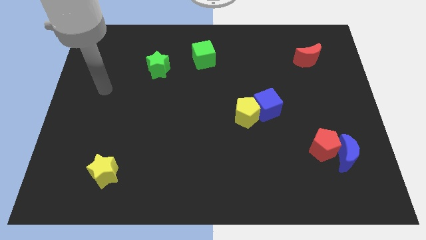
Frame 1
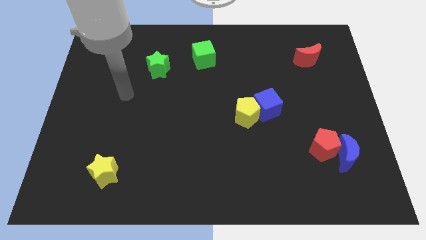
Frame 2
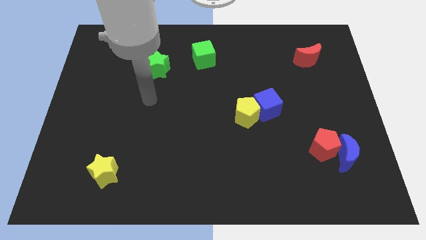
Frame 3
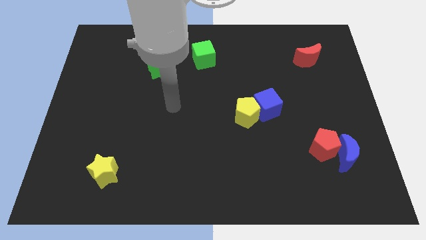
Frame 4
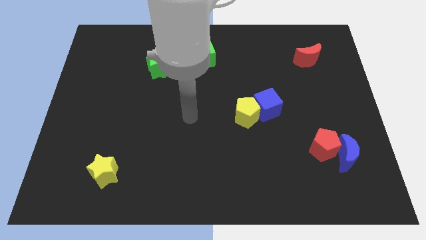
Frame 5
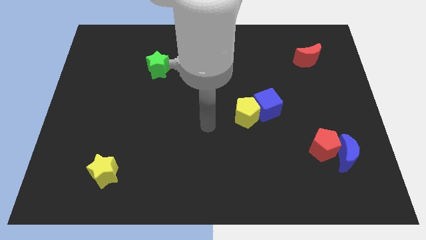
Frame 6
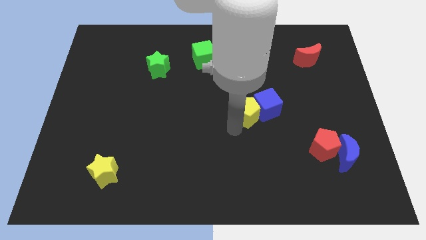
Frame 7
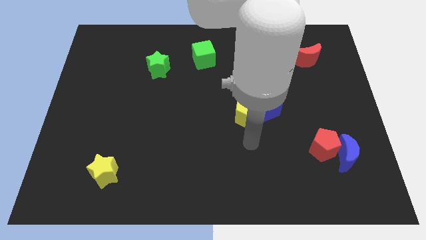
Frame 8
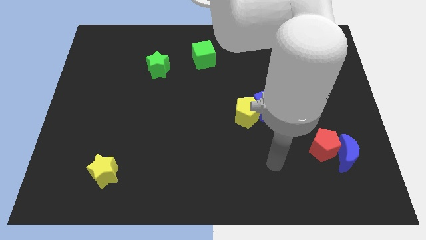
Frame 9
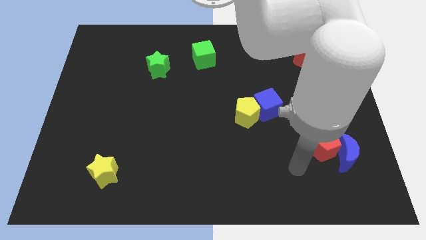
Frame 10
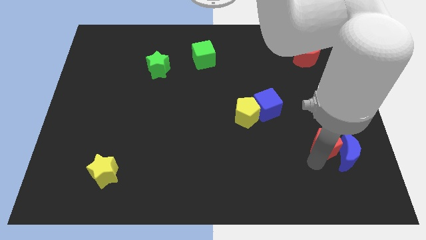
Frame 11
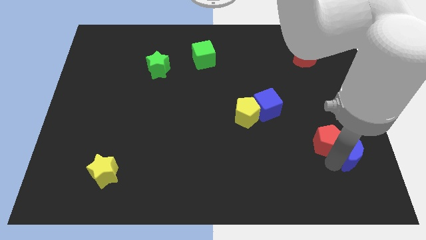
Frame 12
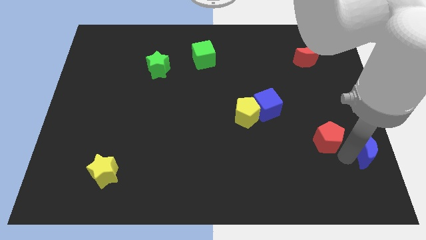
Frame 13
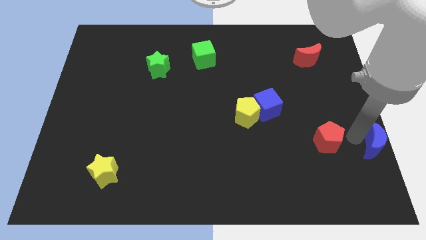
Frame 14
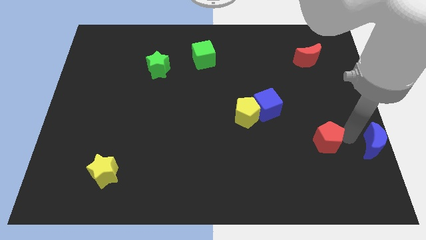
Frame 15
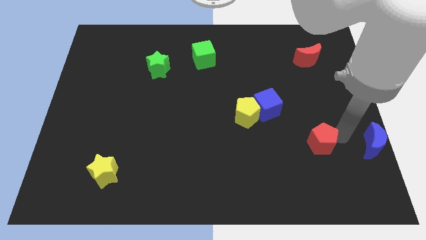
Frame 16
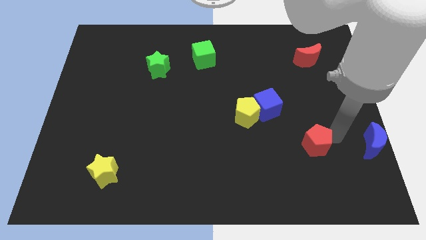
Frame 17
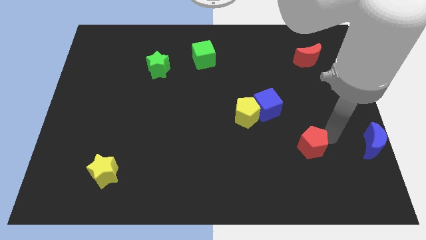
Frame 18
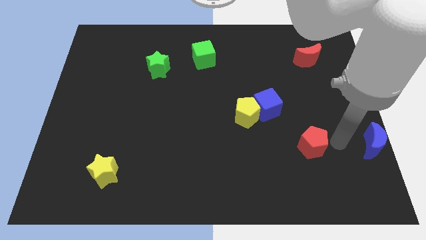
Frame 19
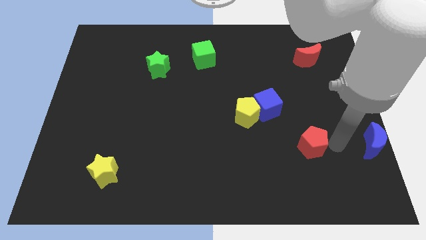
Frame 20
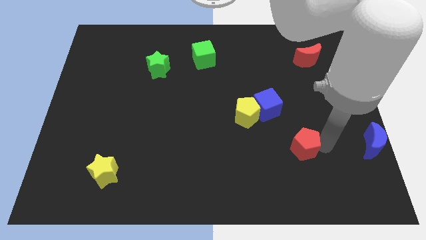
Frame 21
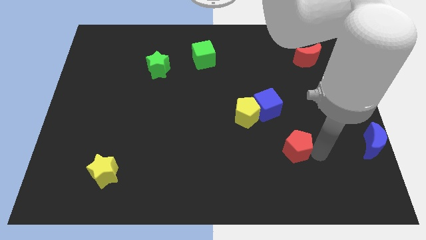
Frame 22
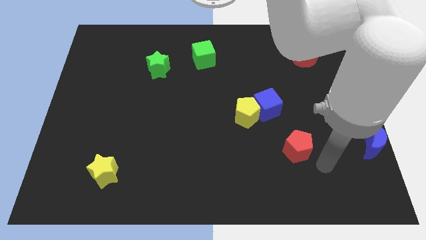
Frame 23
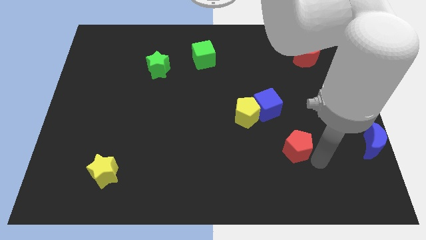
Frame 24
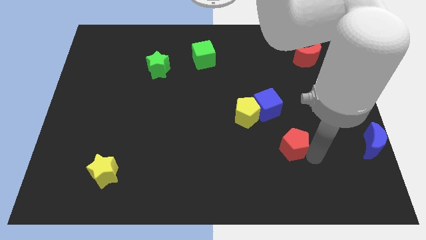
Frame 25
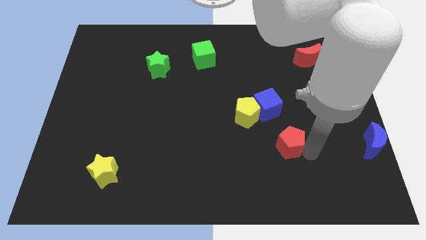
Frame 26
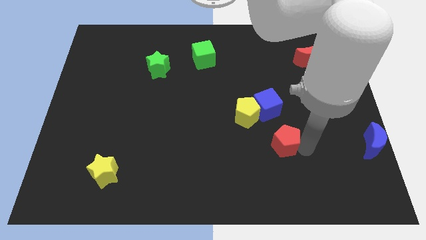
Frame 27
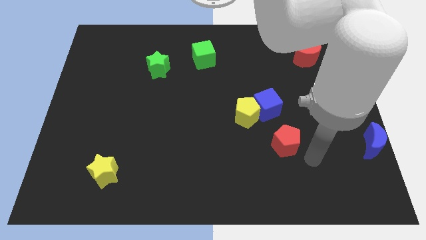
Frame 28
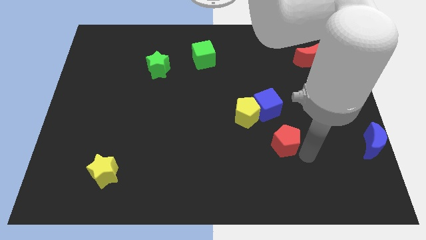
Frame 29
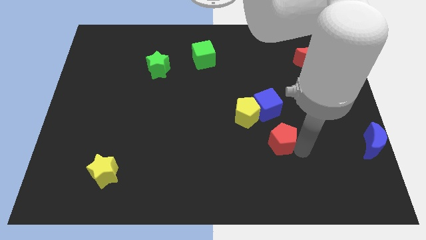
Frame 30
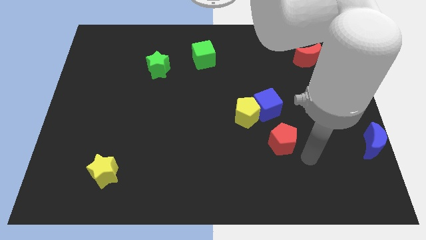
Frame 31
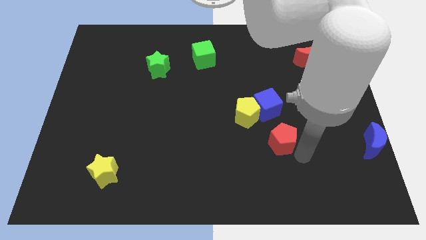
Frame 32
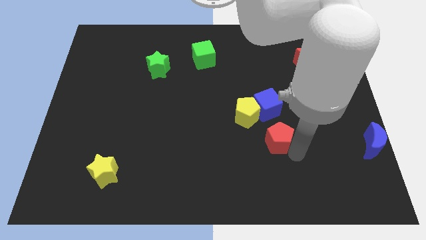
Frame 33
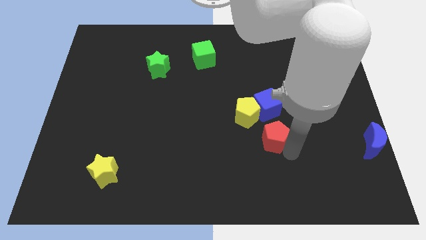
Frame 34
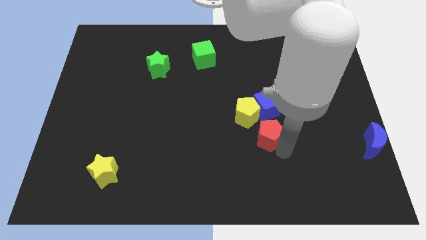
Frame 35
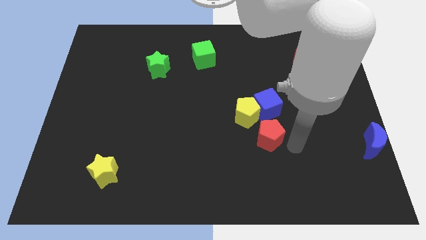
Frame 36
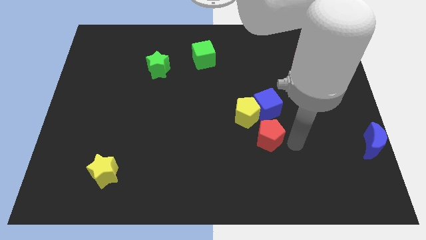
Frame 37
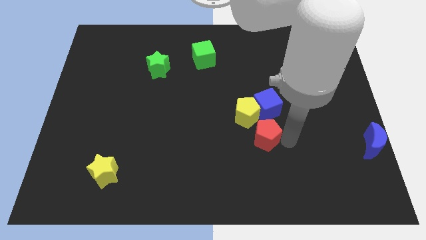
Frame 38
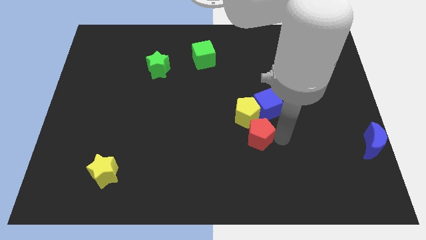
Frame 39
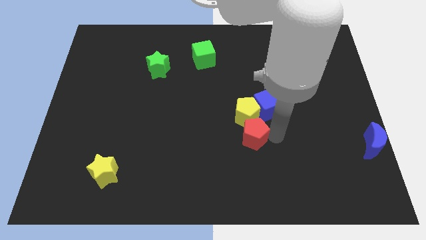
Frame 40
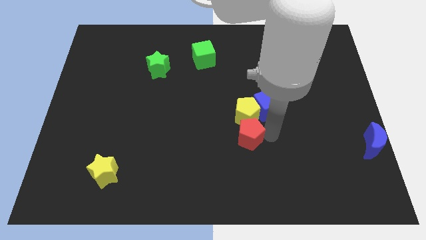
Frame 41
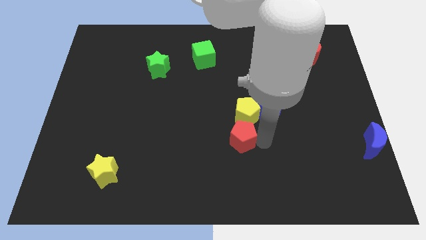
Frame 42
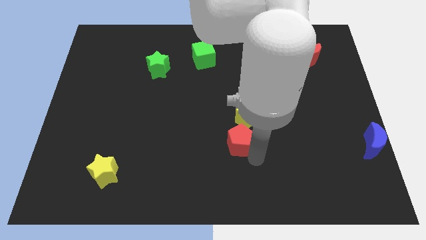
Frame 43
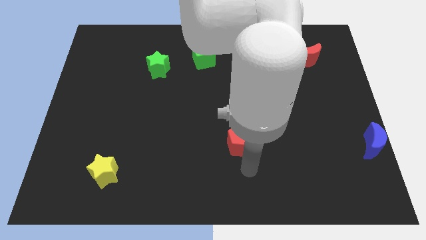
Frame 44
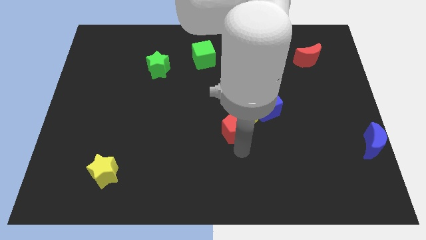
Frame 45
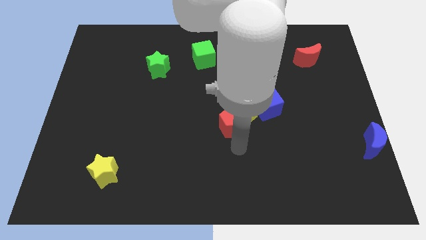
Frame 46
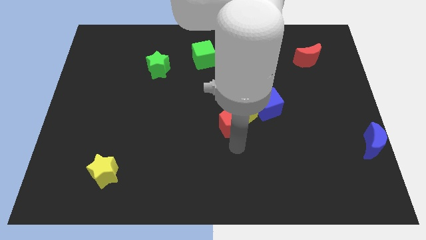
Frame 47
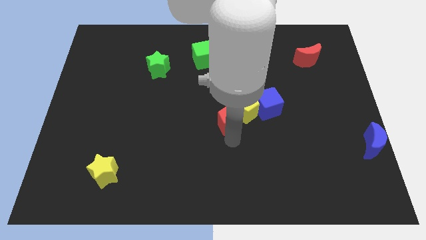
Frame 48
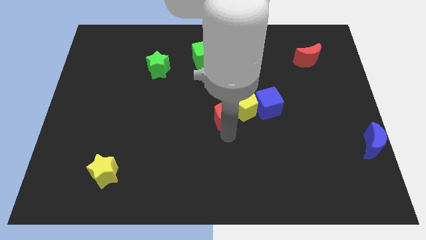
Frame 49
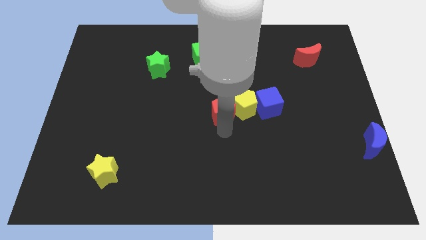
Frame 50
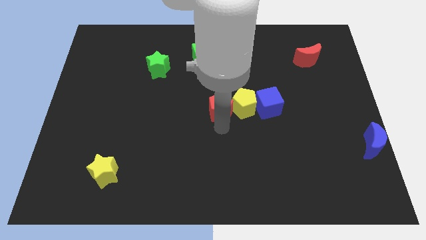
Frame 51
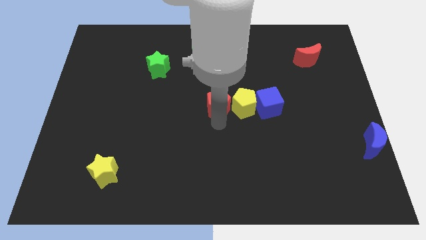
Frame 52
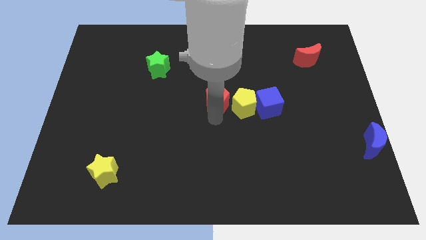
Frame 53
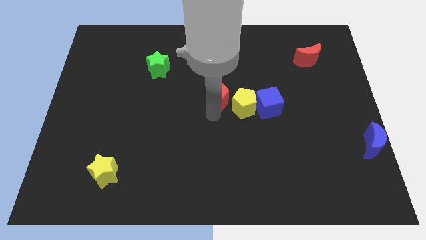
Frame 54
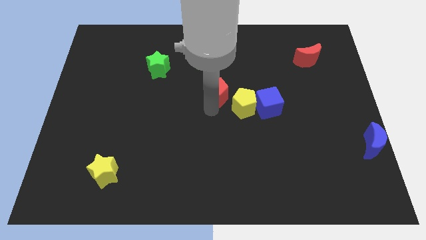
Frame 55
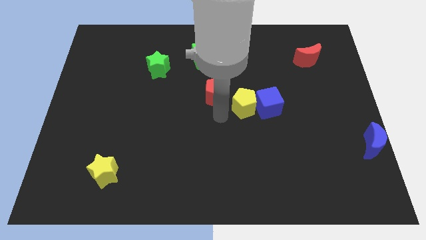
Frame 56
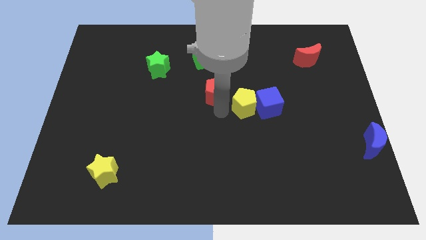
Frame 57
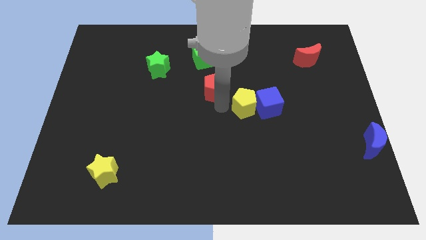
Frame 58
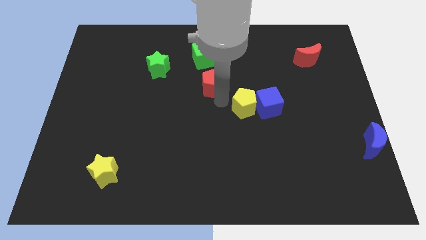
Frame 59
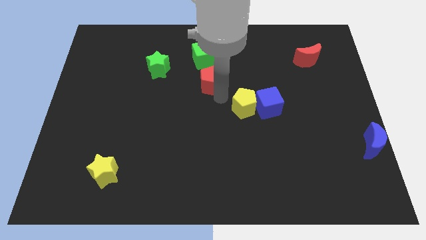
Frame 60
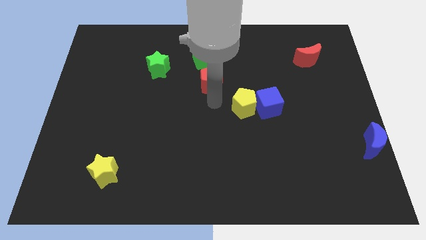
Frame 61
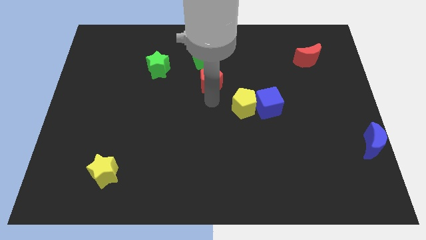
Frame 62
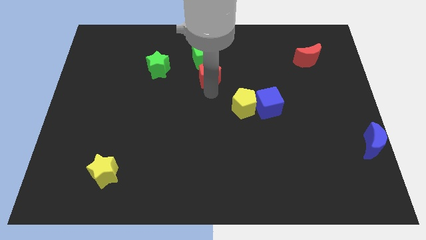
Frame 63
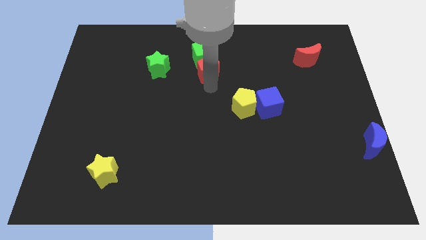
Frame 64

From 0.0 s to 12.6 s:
put the red pentagon to the green cube

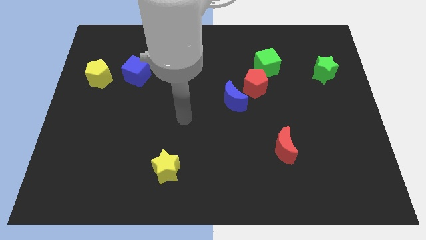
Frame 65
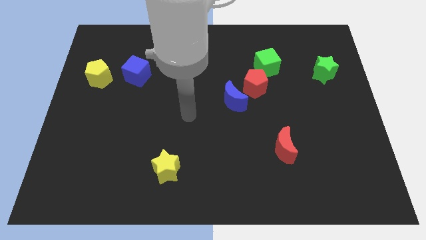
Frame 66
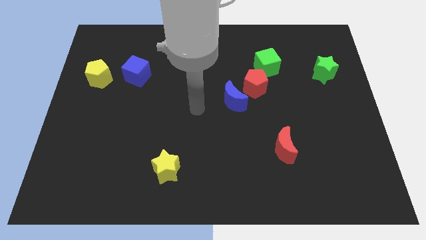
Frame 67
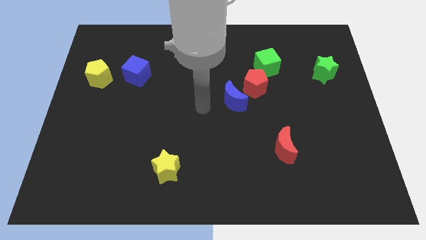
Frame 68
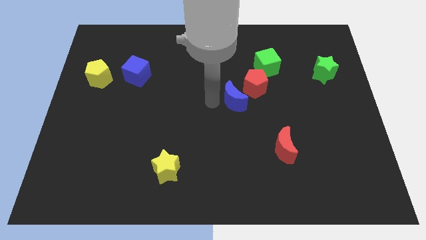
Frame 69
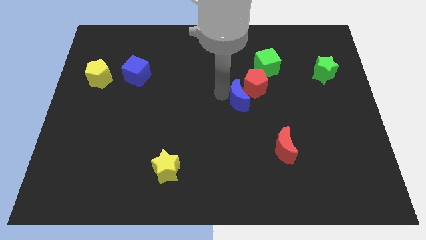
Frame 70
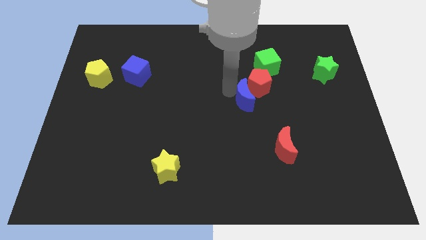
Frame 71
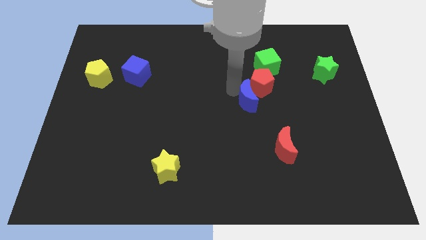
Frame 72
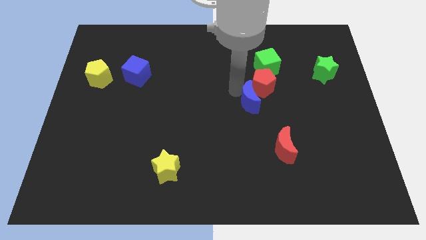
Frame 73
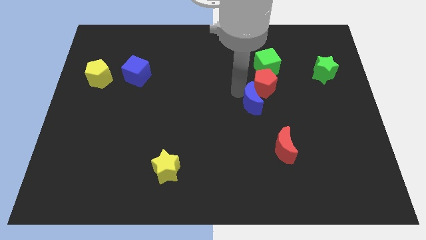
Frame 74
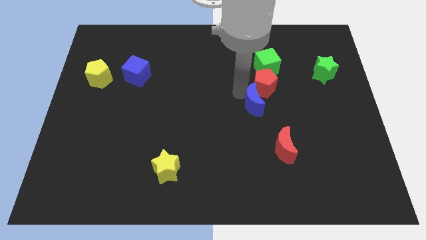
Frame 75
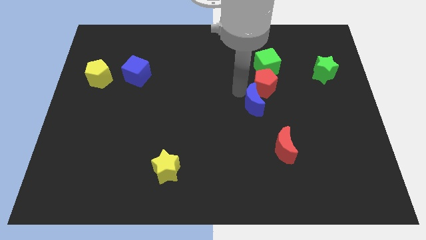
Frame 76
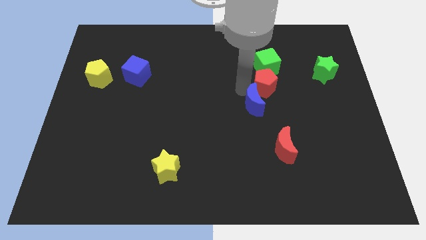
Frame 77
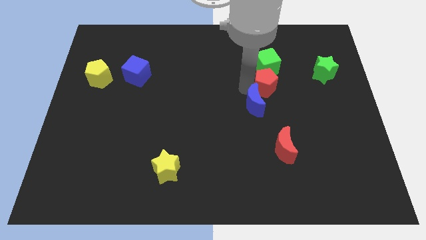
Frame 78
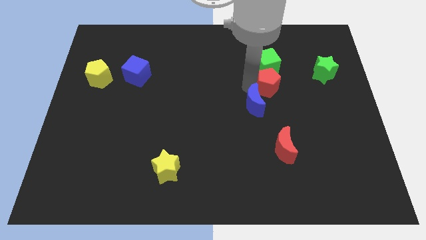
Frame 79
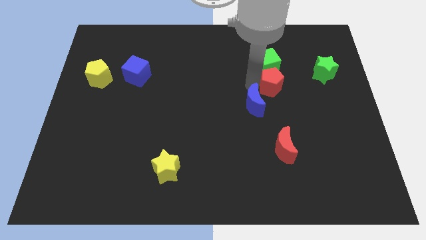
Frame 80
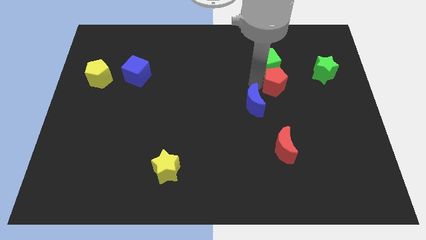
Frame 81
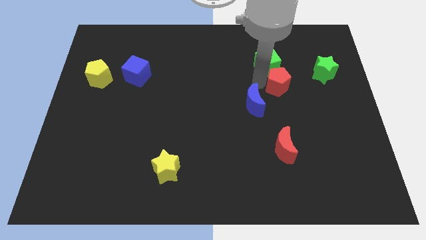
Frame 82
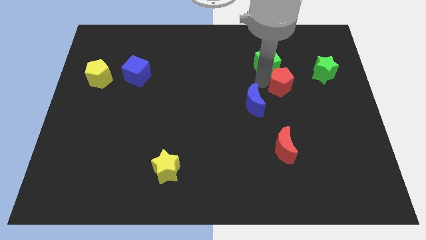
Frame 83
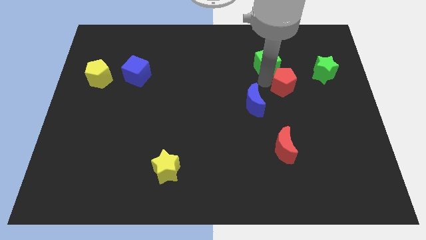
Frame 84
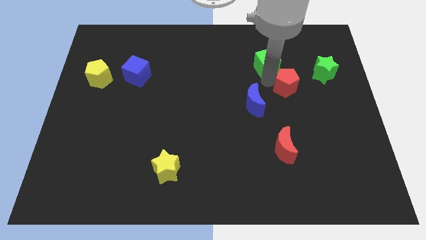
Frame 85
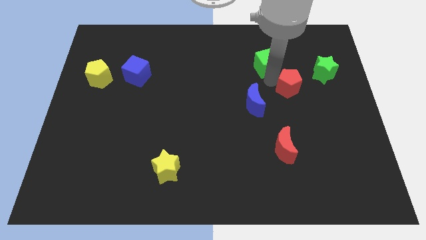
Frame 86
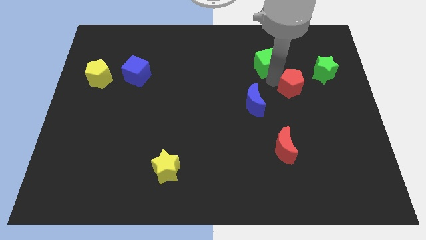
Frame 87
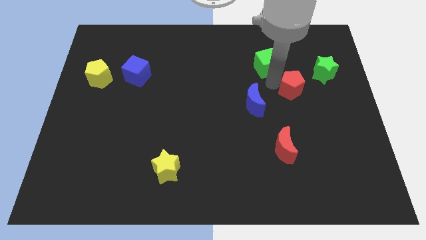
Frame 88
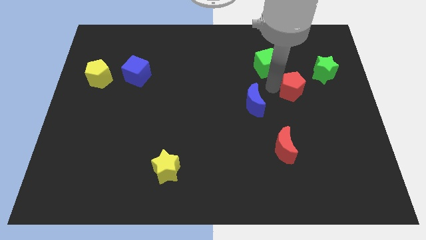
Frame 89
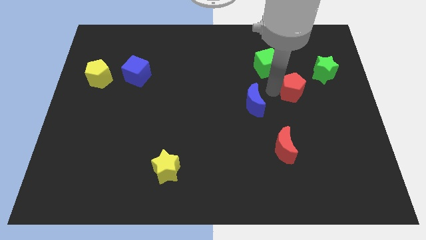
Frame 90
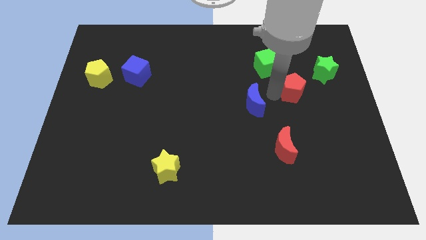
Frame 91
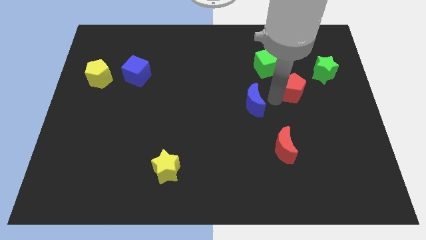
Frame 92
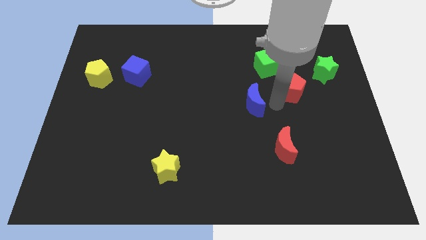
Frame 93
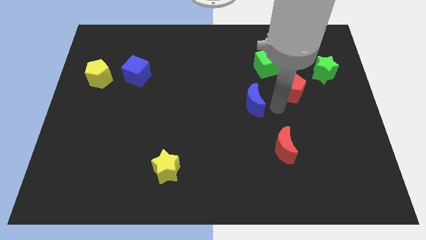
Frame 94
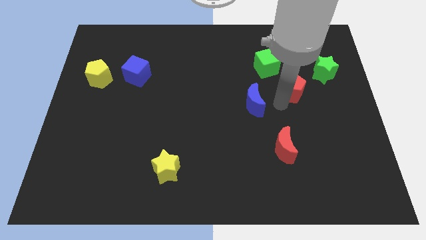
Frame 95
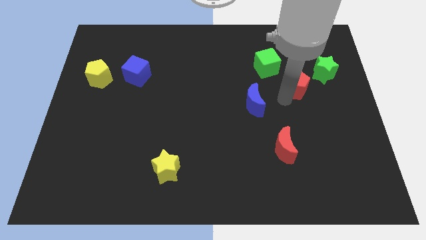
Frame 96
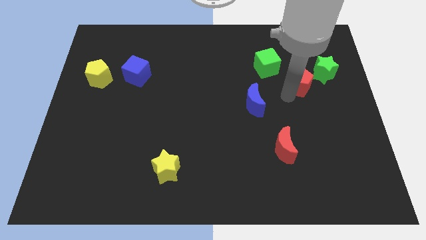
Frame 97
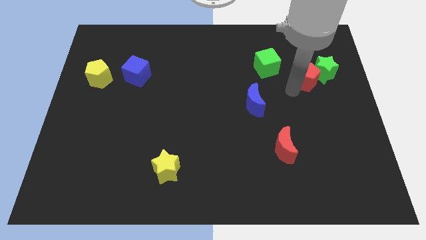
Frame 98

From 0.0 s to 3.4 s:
put the red pentagon next to the green star
